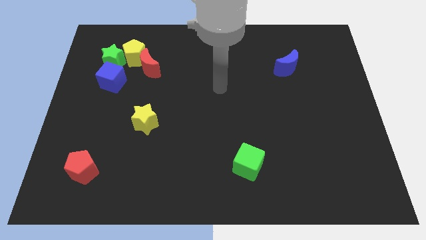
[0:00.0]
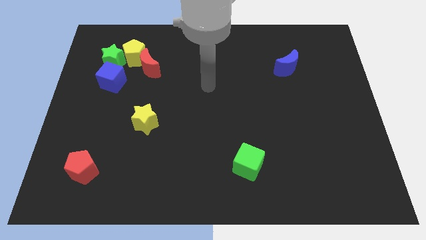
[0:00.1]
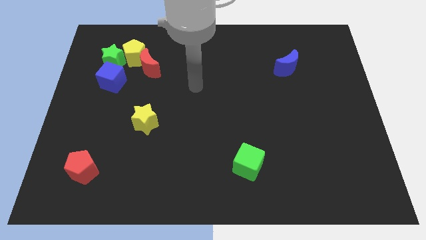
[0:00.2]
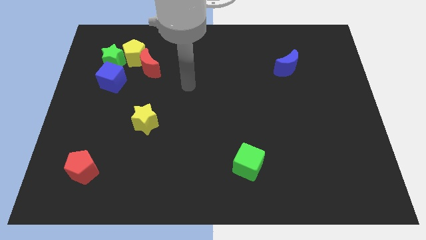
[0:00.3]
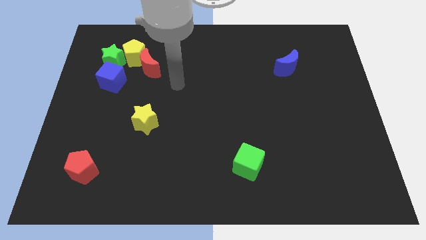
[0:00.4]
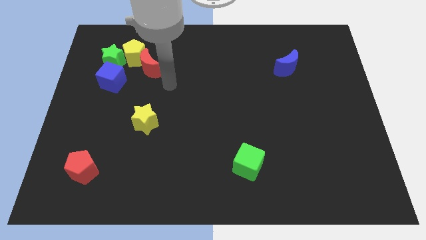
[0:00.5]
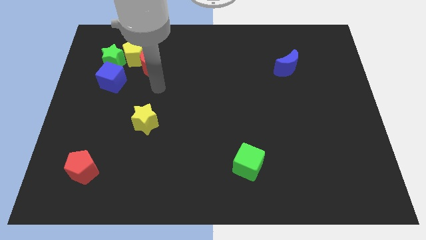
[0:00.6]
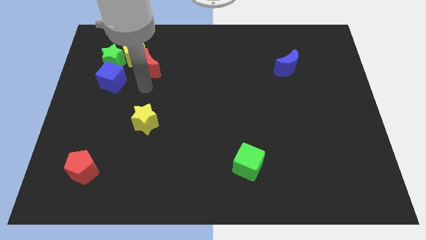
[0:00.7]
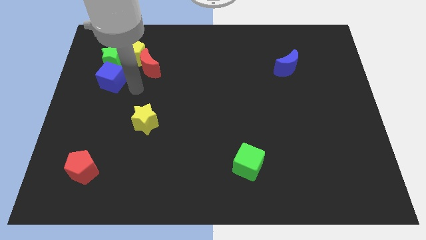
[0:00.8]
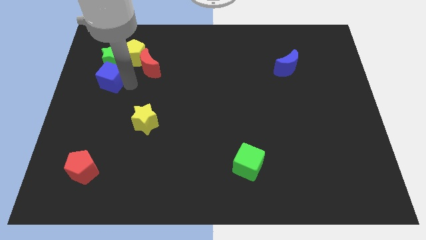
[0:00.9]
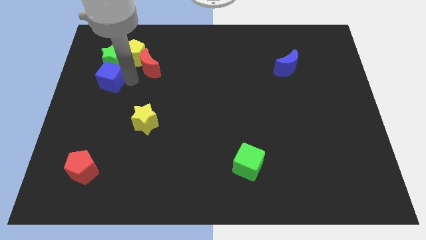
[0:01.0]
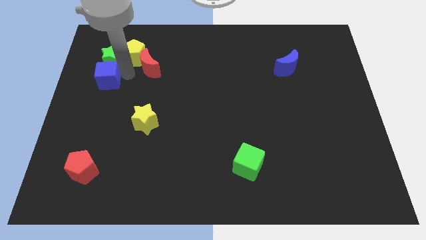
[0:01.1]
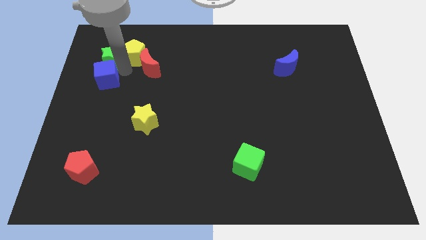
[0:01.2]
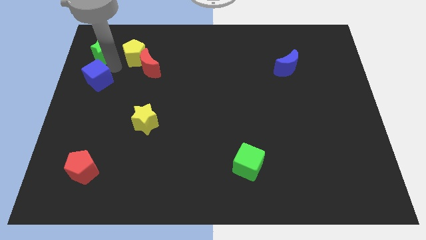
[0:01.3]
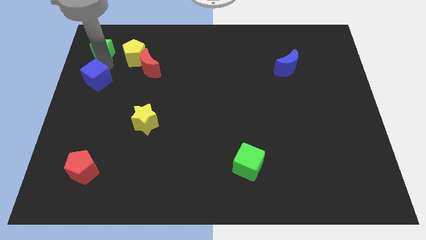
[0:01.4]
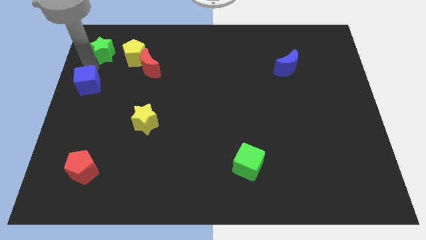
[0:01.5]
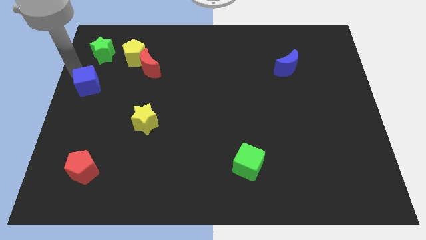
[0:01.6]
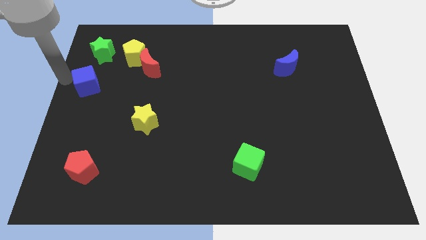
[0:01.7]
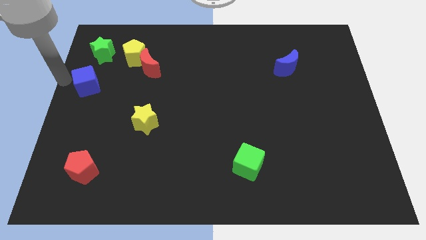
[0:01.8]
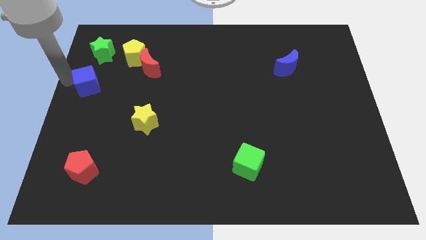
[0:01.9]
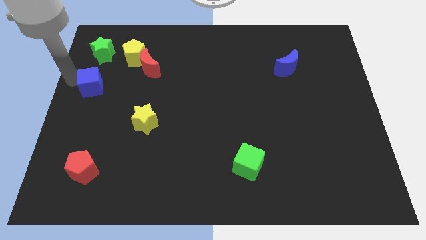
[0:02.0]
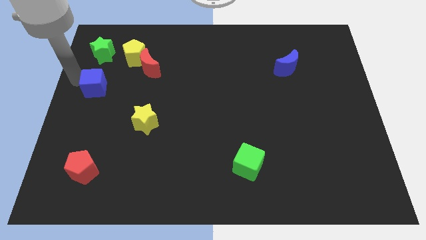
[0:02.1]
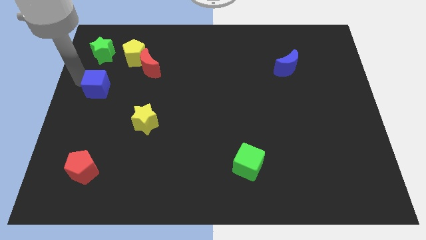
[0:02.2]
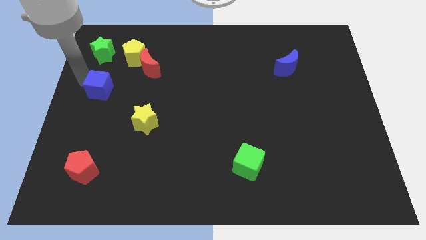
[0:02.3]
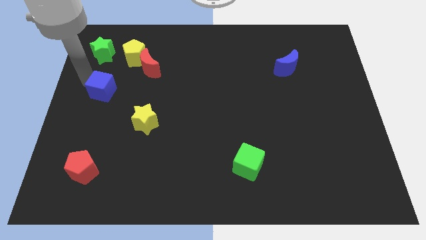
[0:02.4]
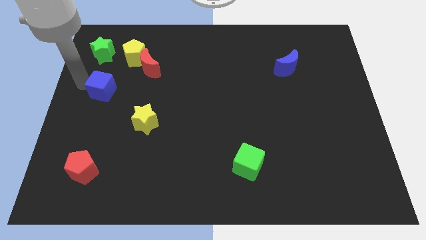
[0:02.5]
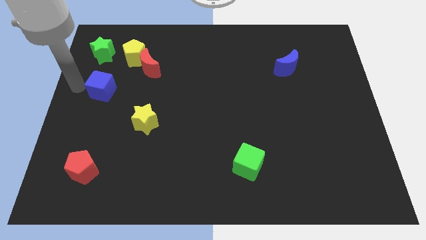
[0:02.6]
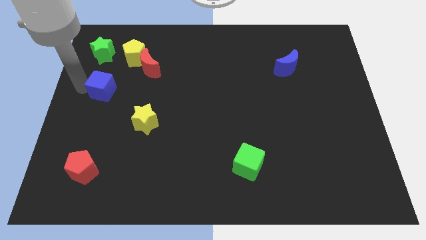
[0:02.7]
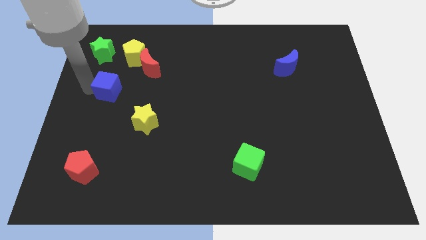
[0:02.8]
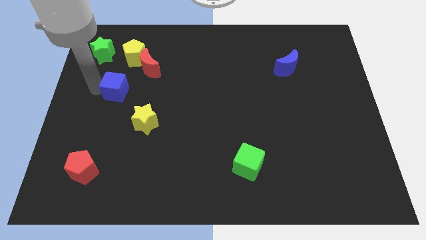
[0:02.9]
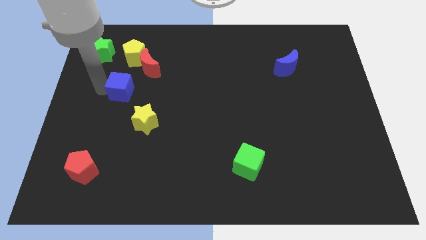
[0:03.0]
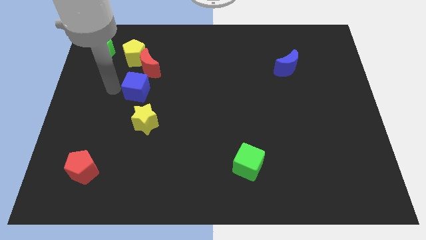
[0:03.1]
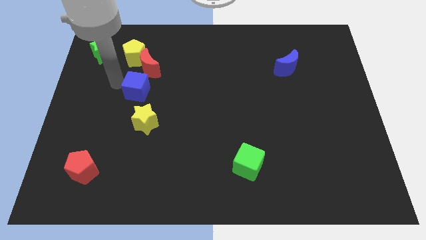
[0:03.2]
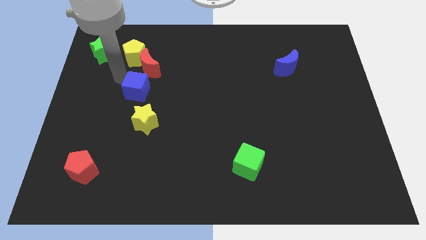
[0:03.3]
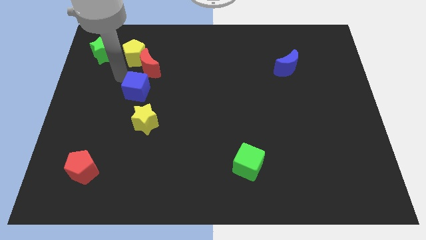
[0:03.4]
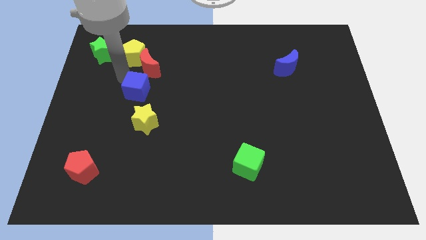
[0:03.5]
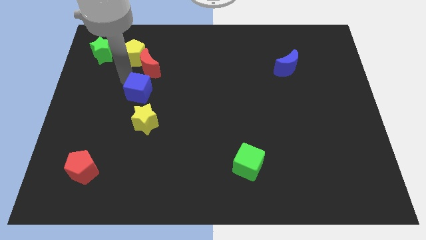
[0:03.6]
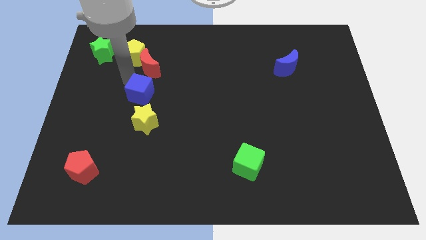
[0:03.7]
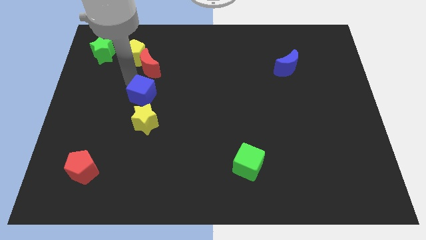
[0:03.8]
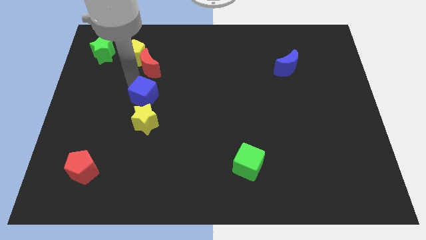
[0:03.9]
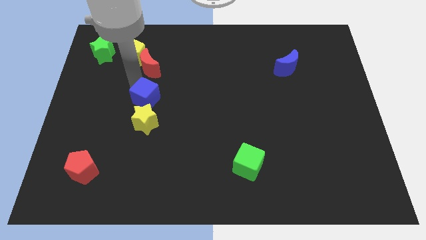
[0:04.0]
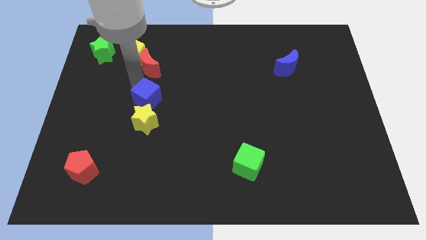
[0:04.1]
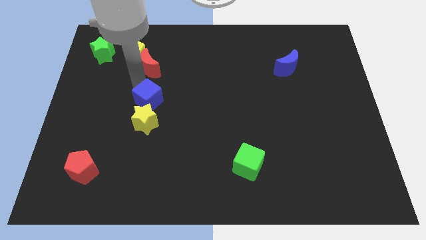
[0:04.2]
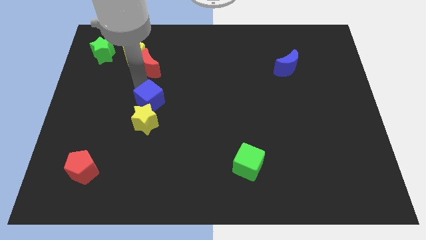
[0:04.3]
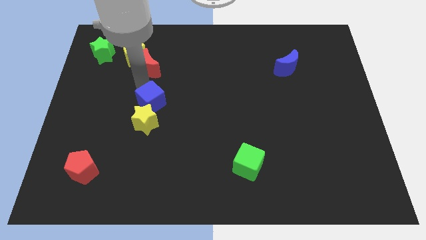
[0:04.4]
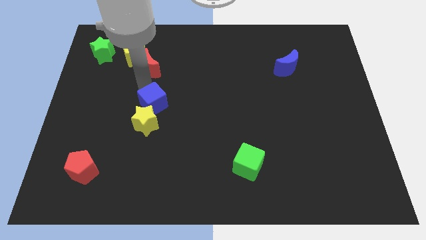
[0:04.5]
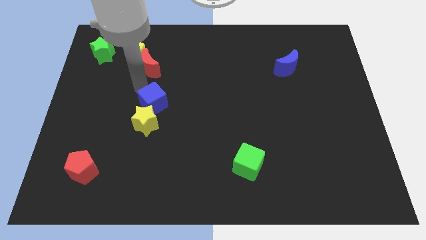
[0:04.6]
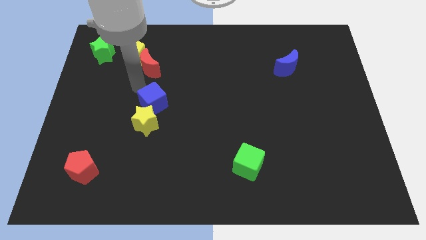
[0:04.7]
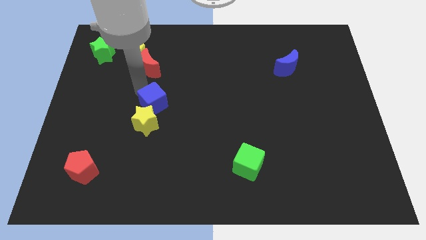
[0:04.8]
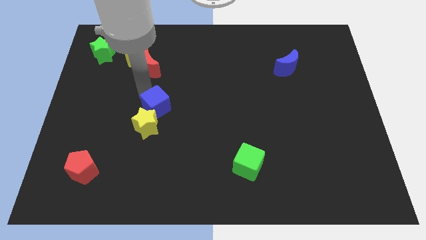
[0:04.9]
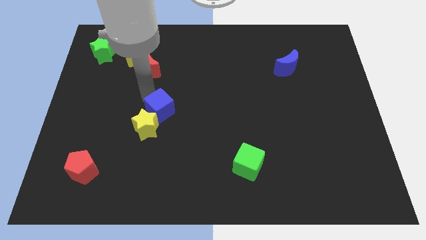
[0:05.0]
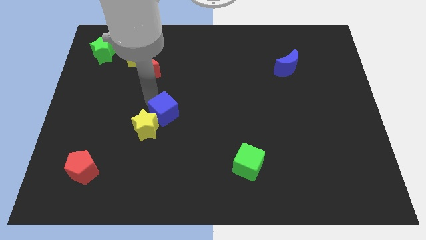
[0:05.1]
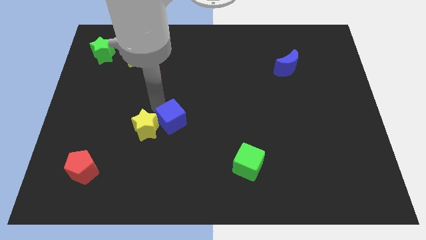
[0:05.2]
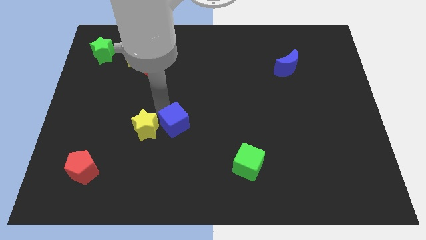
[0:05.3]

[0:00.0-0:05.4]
push the blue cube diagonally down and right

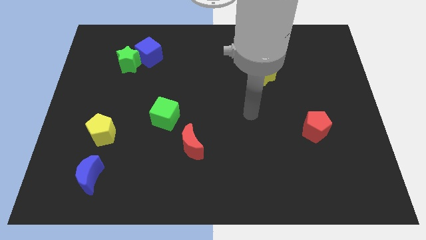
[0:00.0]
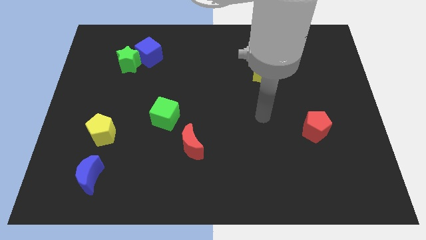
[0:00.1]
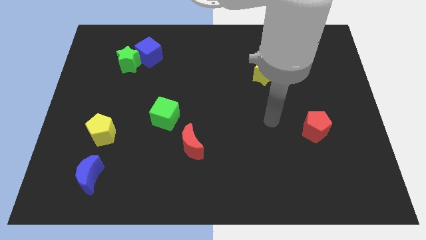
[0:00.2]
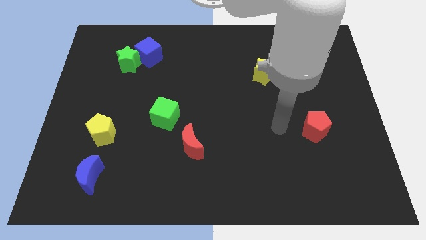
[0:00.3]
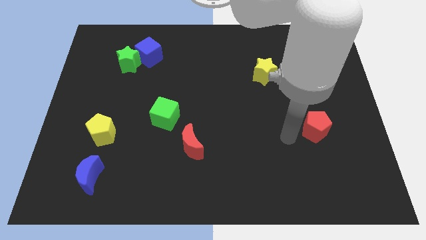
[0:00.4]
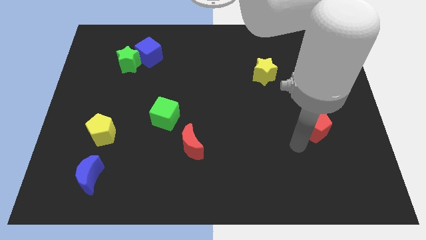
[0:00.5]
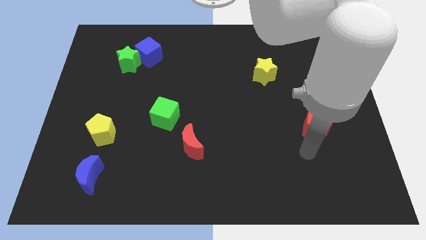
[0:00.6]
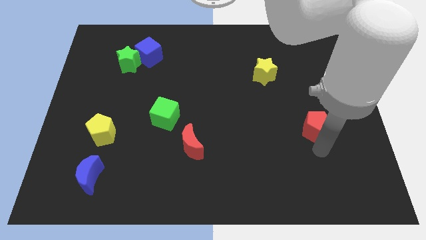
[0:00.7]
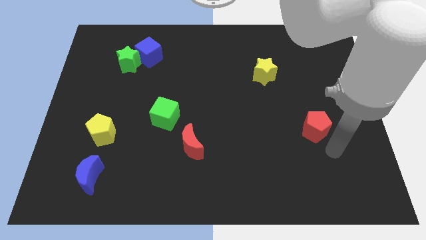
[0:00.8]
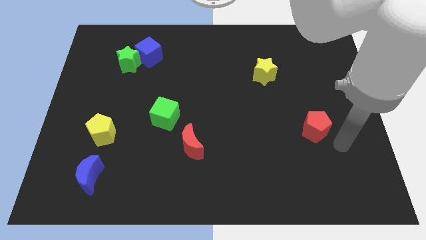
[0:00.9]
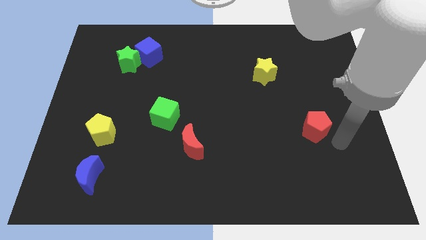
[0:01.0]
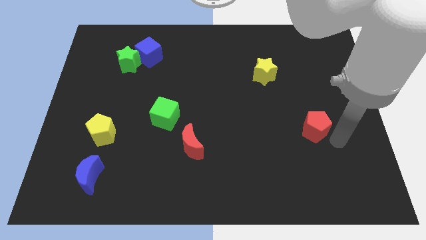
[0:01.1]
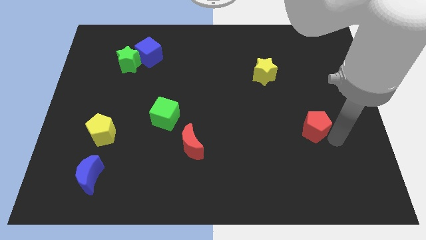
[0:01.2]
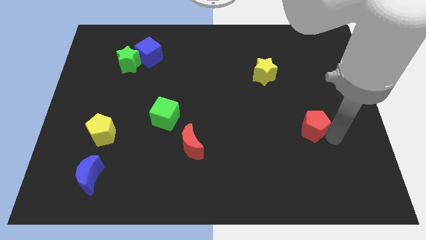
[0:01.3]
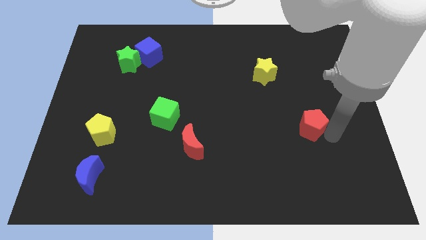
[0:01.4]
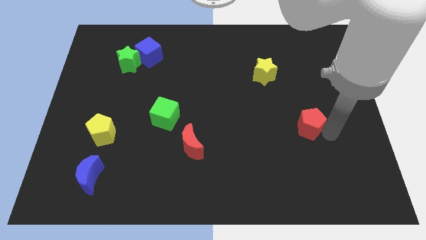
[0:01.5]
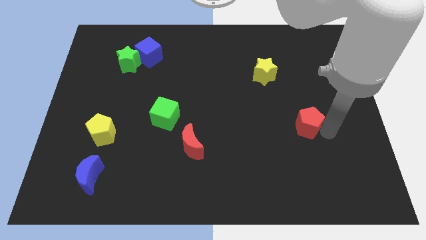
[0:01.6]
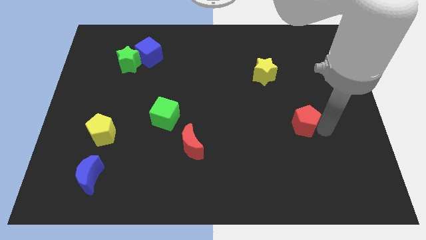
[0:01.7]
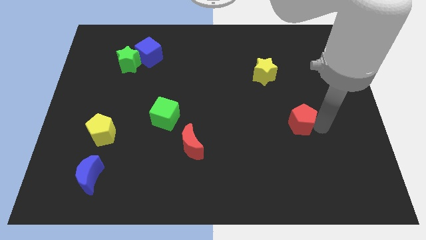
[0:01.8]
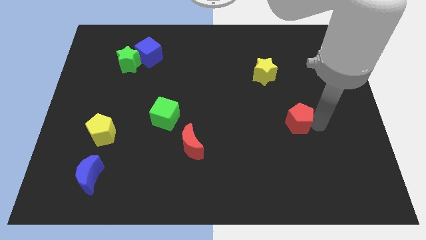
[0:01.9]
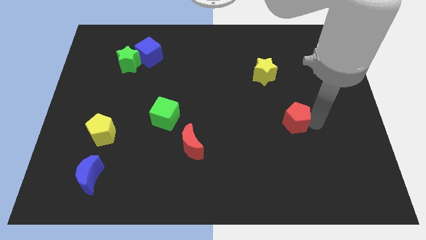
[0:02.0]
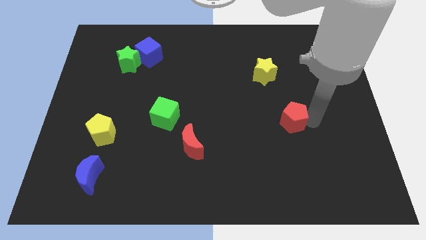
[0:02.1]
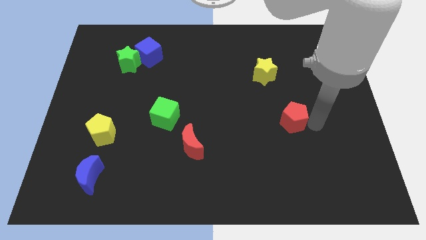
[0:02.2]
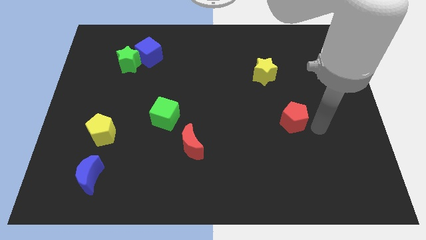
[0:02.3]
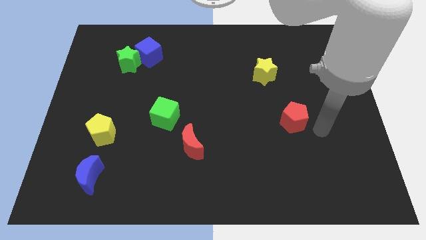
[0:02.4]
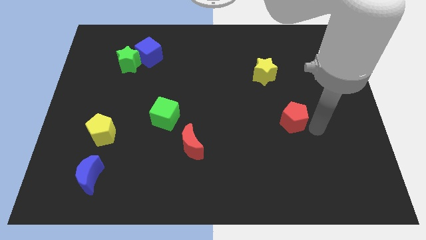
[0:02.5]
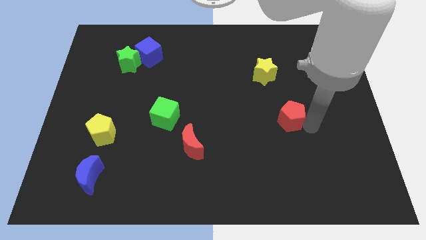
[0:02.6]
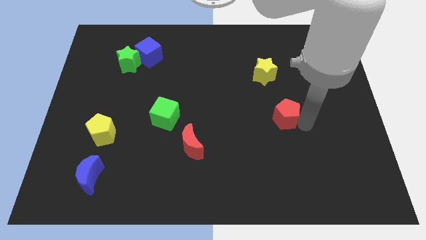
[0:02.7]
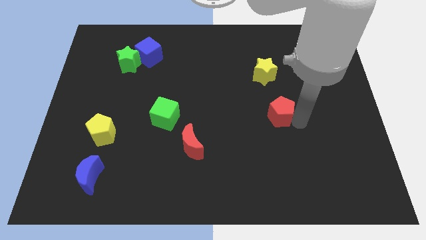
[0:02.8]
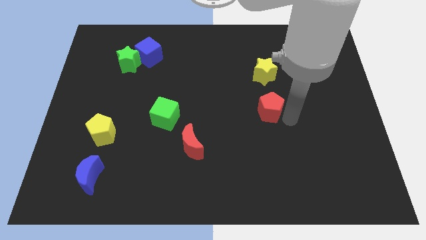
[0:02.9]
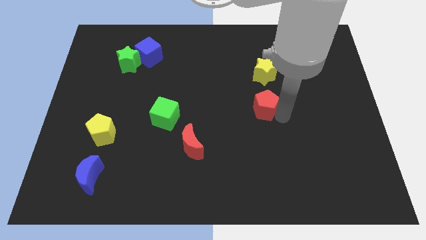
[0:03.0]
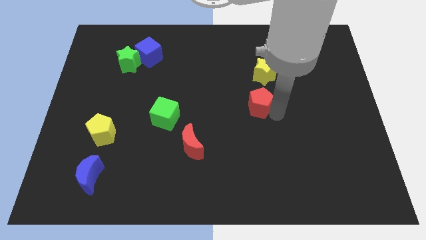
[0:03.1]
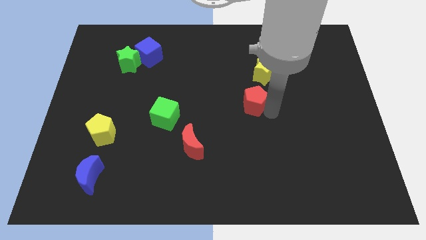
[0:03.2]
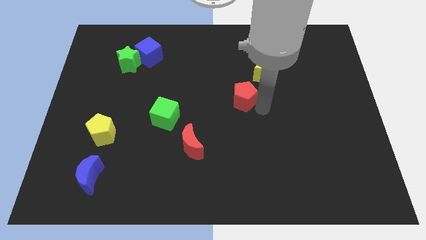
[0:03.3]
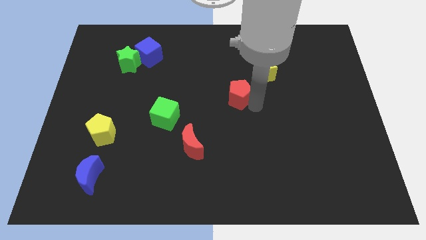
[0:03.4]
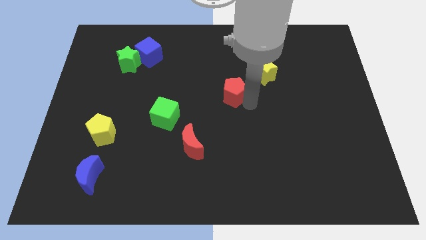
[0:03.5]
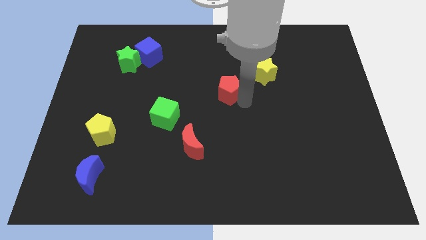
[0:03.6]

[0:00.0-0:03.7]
push the red pentagon upwards and to the left
